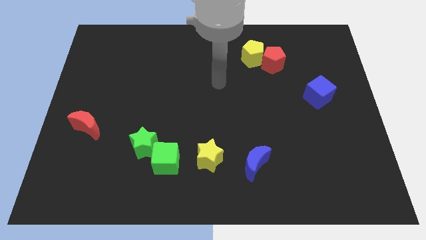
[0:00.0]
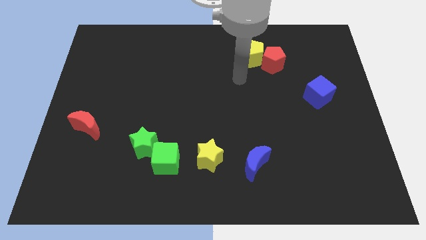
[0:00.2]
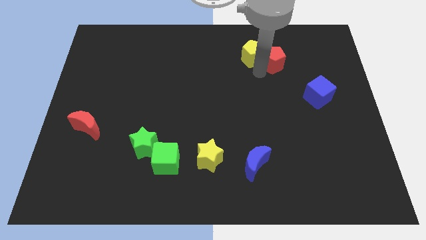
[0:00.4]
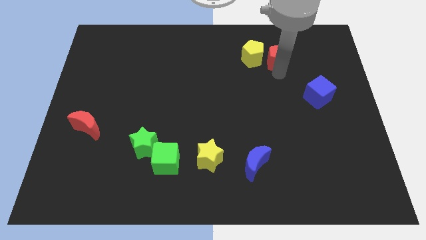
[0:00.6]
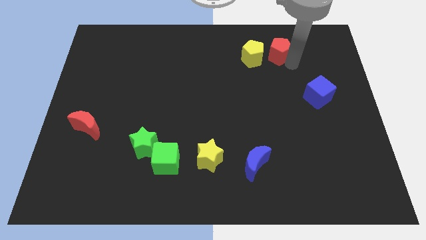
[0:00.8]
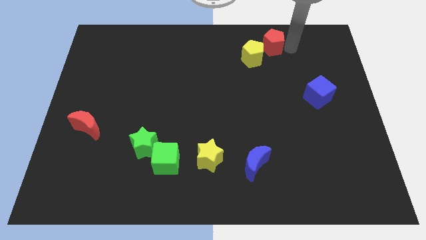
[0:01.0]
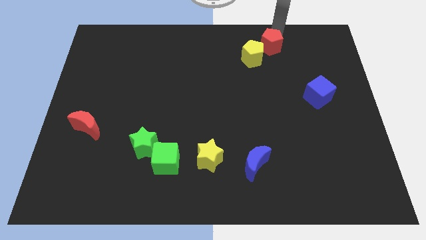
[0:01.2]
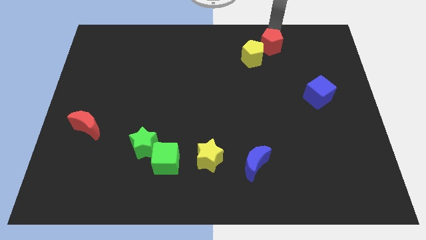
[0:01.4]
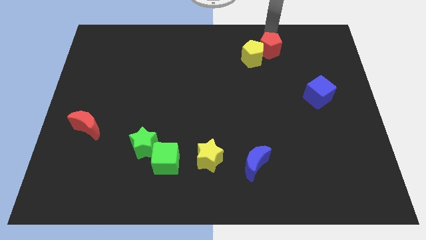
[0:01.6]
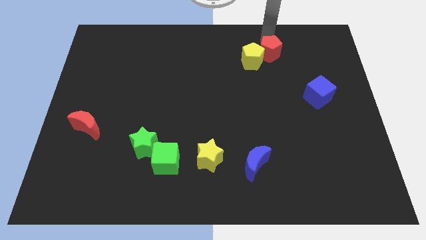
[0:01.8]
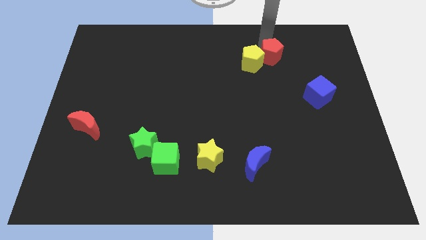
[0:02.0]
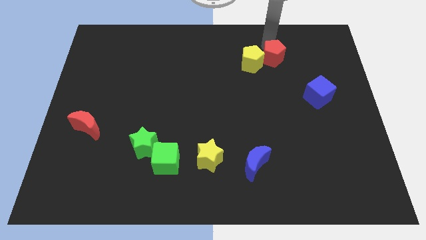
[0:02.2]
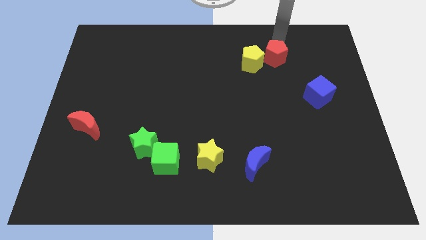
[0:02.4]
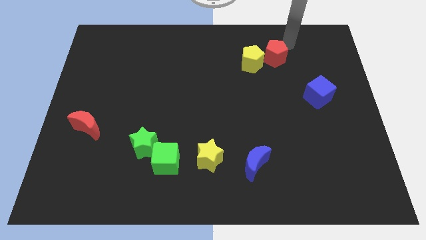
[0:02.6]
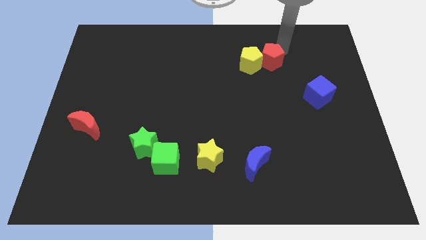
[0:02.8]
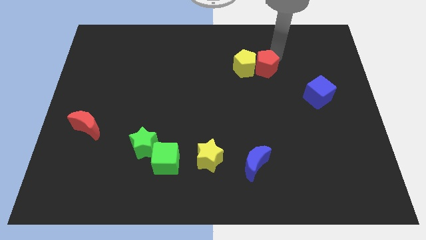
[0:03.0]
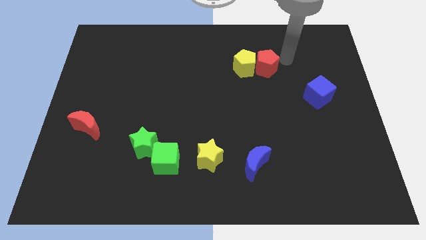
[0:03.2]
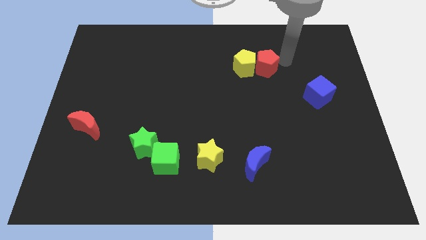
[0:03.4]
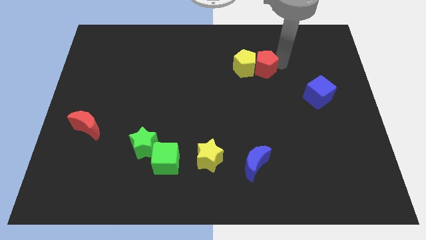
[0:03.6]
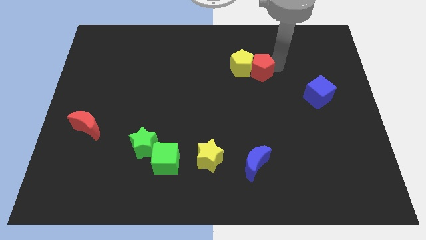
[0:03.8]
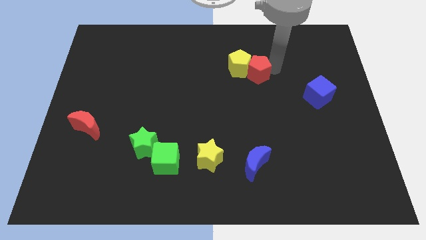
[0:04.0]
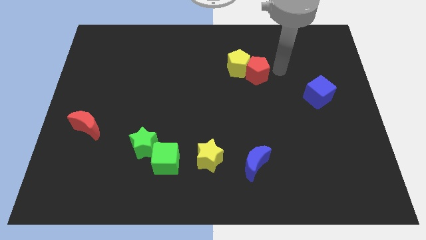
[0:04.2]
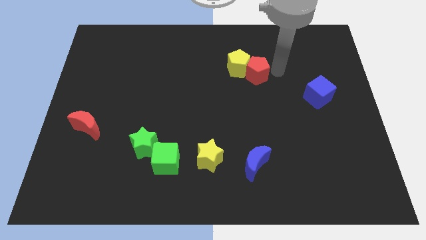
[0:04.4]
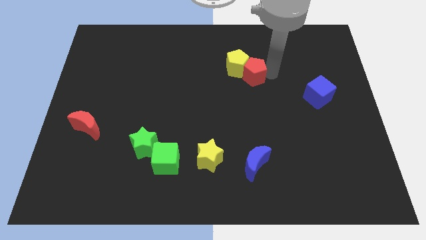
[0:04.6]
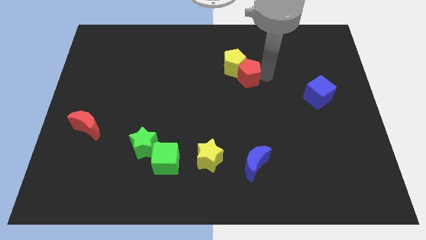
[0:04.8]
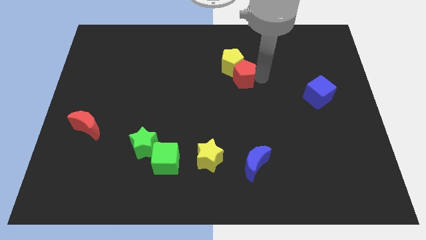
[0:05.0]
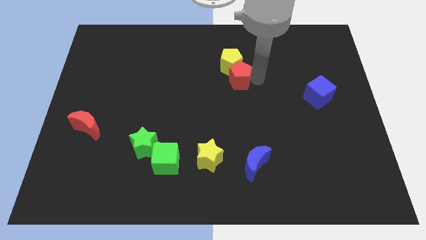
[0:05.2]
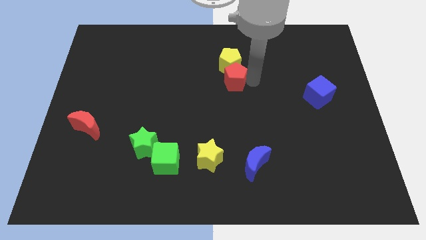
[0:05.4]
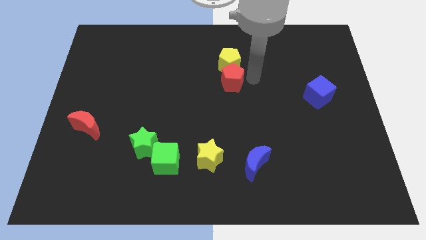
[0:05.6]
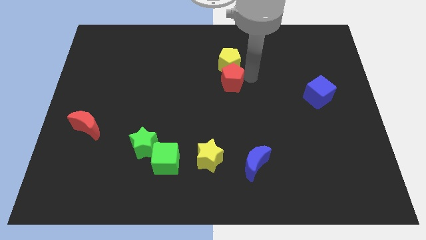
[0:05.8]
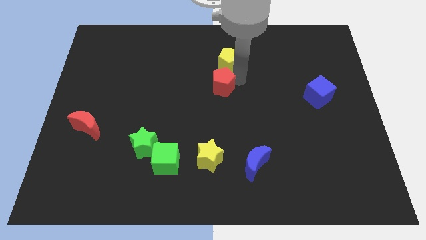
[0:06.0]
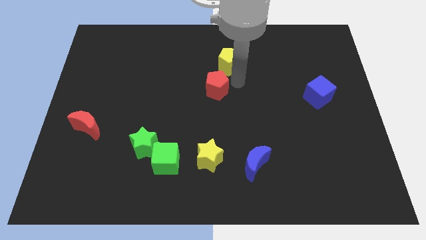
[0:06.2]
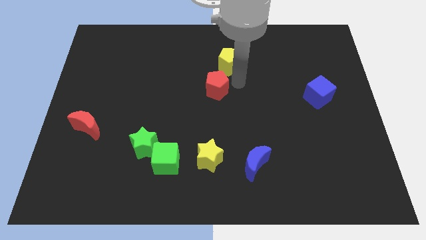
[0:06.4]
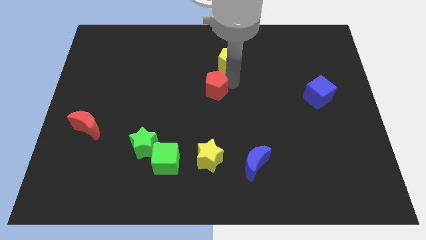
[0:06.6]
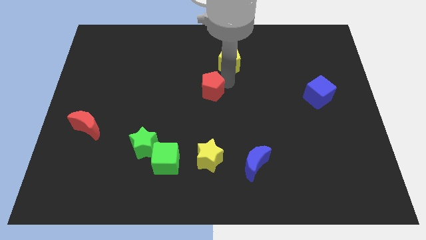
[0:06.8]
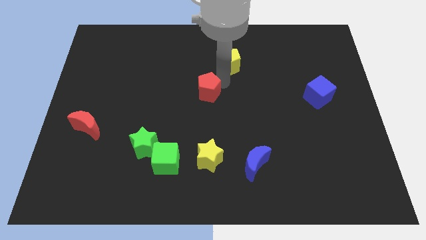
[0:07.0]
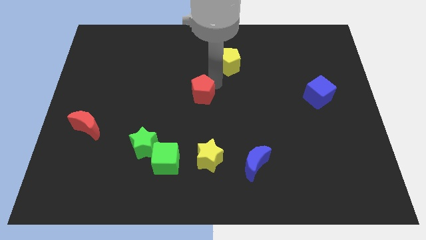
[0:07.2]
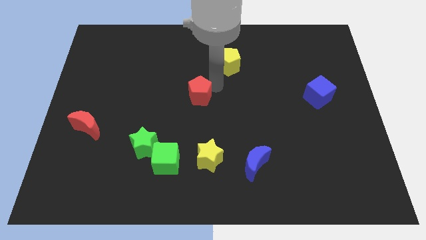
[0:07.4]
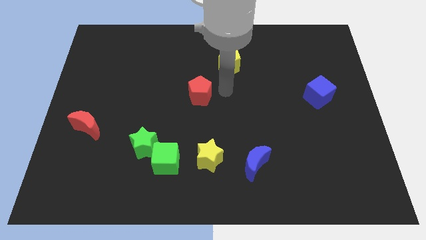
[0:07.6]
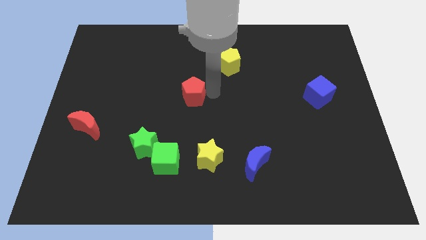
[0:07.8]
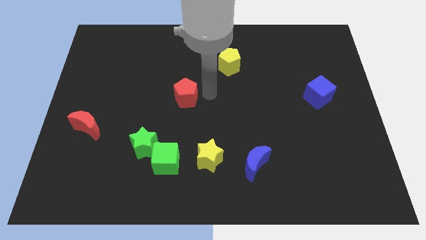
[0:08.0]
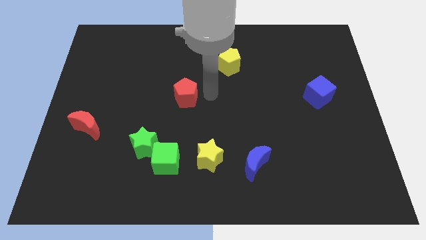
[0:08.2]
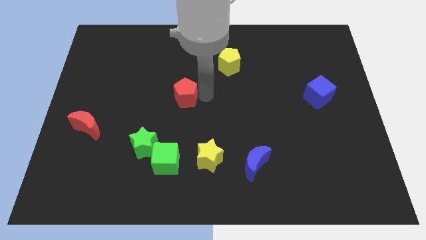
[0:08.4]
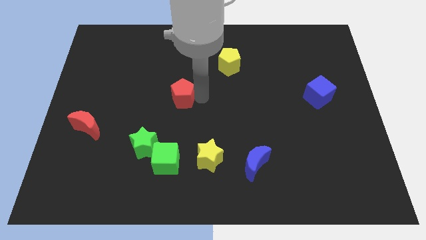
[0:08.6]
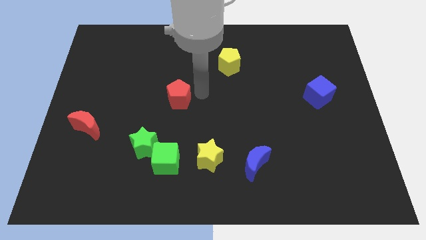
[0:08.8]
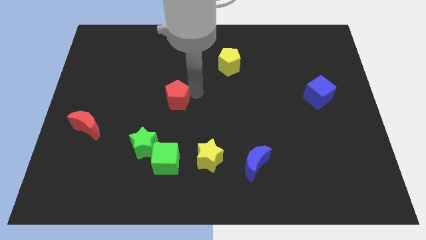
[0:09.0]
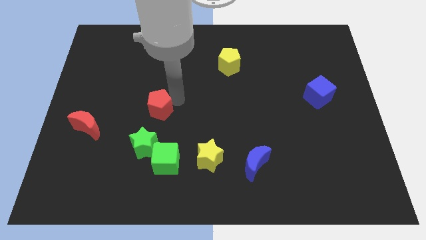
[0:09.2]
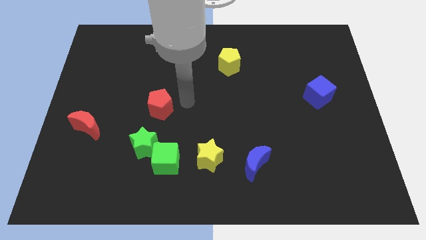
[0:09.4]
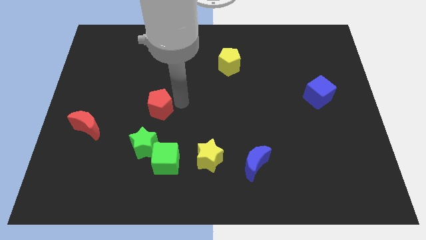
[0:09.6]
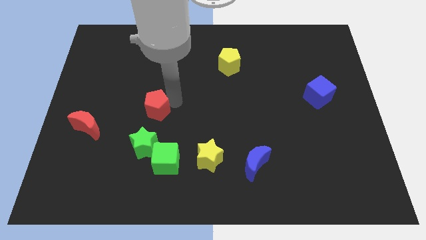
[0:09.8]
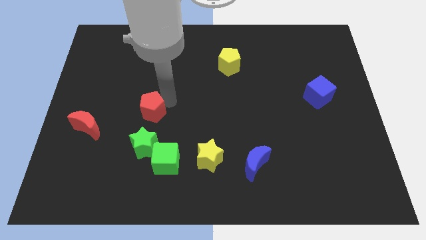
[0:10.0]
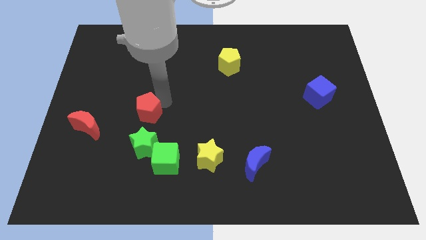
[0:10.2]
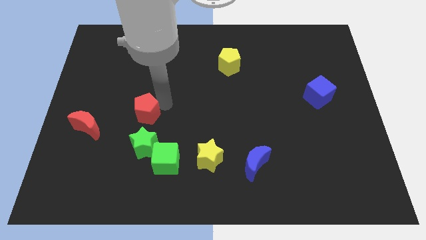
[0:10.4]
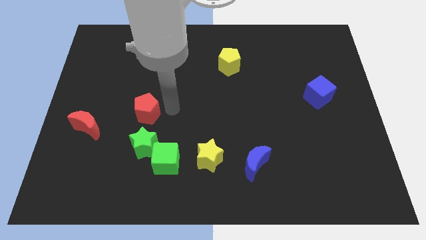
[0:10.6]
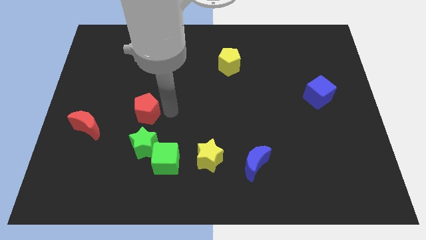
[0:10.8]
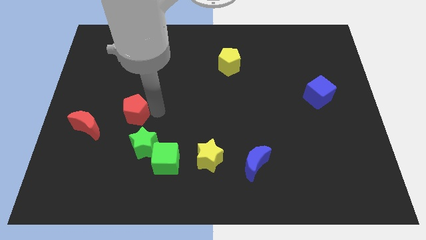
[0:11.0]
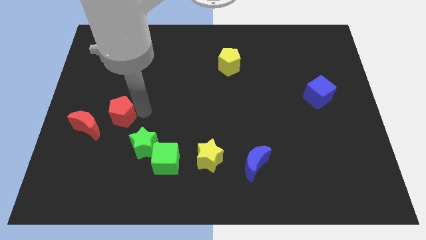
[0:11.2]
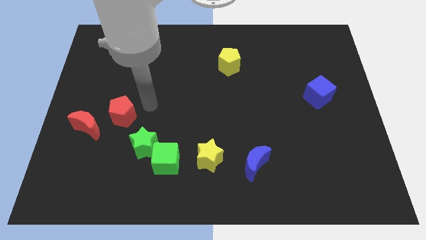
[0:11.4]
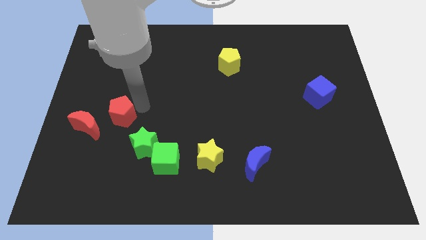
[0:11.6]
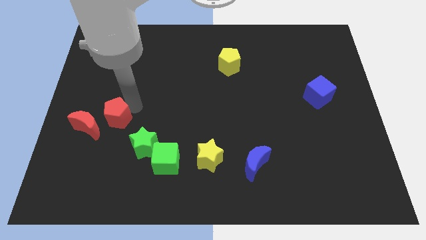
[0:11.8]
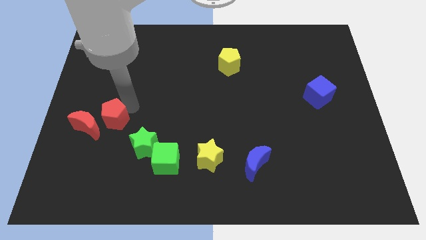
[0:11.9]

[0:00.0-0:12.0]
move the red pentagon next to the red moon

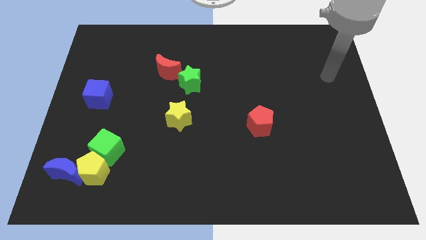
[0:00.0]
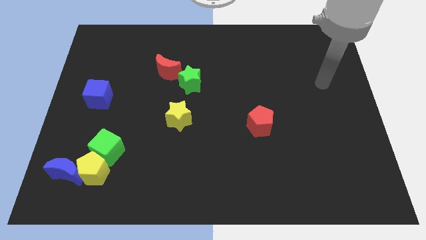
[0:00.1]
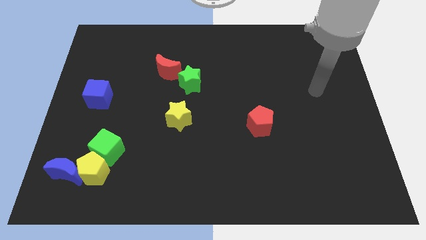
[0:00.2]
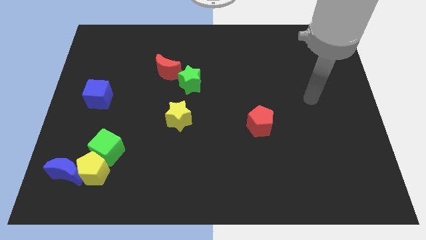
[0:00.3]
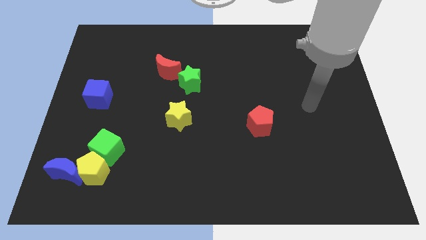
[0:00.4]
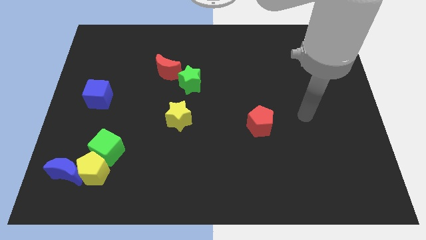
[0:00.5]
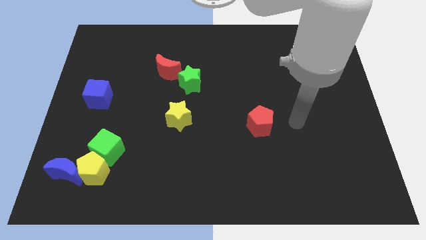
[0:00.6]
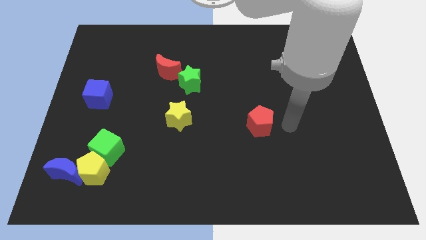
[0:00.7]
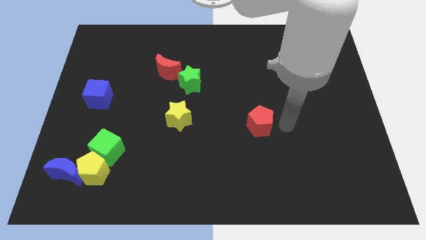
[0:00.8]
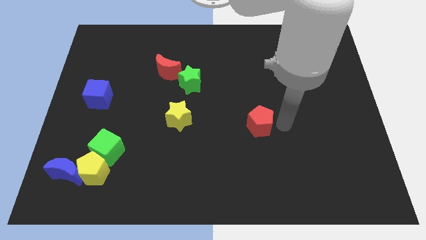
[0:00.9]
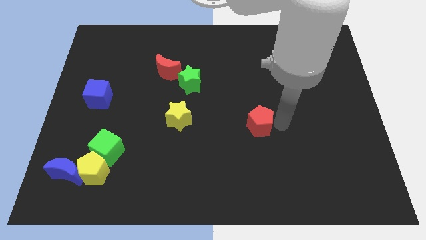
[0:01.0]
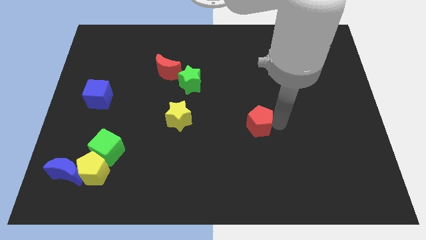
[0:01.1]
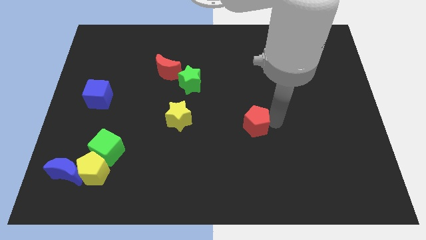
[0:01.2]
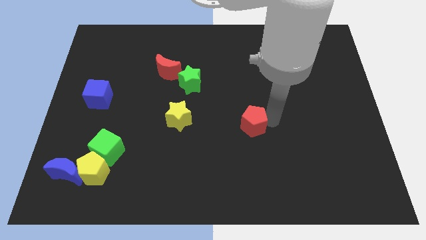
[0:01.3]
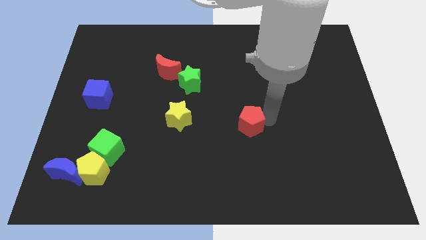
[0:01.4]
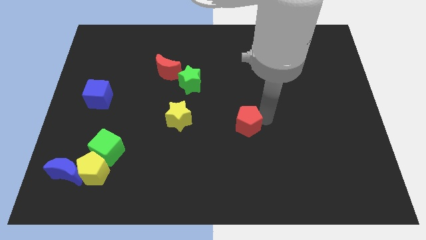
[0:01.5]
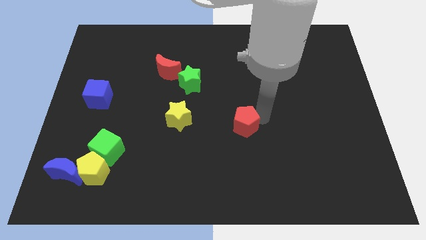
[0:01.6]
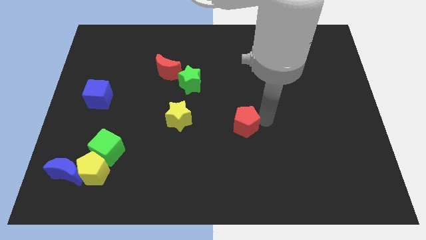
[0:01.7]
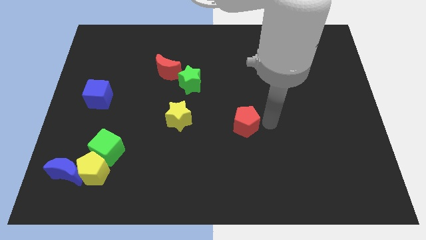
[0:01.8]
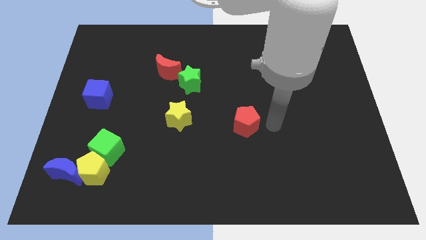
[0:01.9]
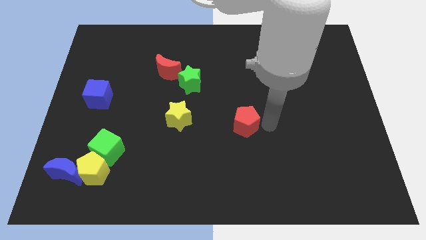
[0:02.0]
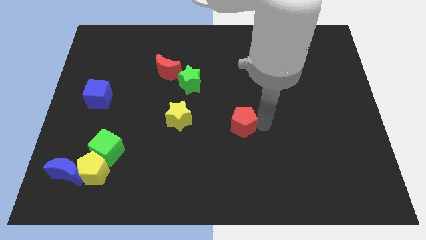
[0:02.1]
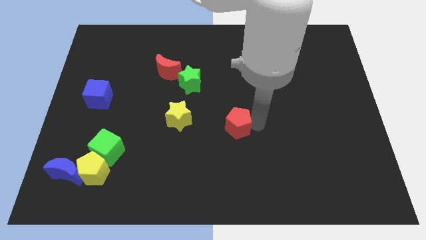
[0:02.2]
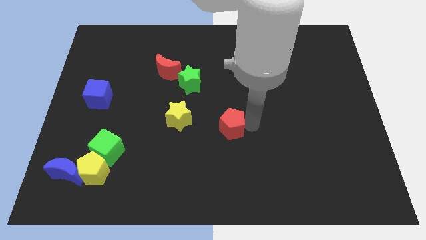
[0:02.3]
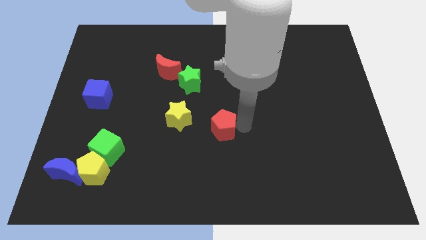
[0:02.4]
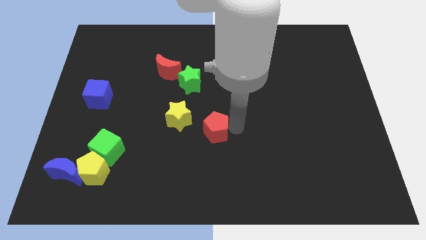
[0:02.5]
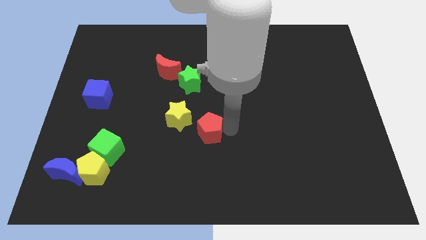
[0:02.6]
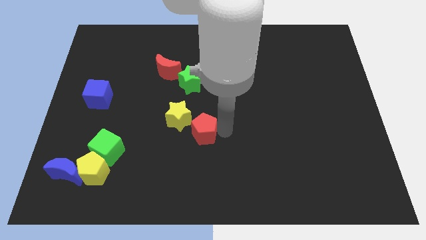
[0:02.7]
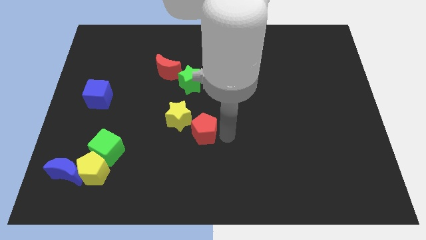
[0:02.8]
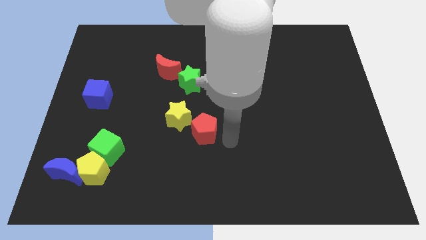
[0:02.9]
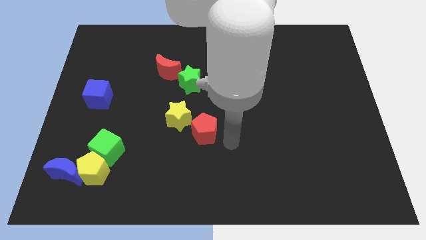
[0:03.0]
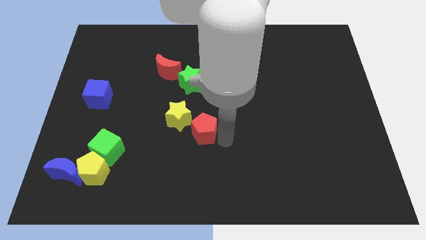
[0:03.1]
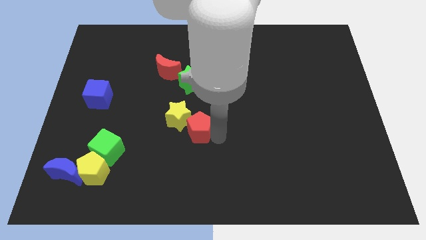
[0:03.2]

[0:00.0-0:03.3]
push the red pentagon close to the yellow star
